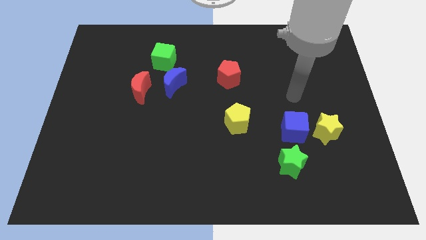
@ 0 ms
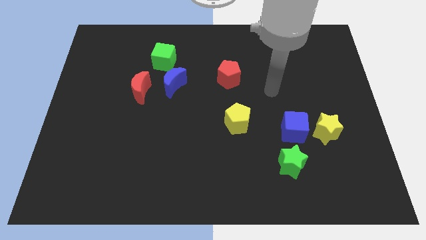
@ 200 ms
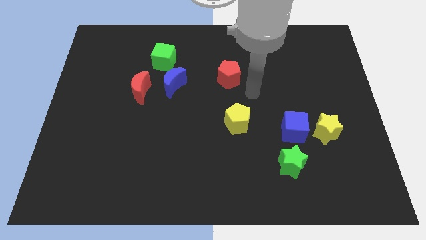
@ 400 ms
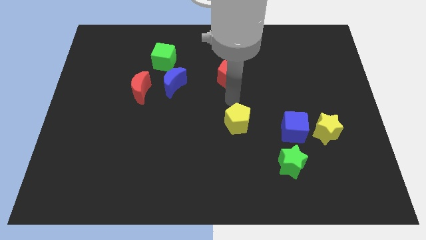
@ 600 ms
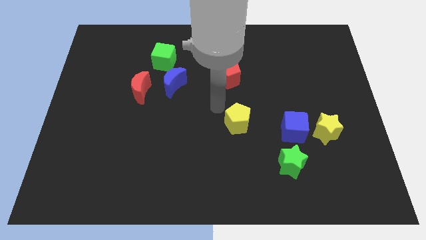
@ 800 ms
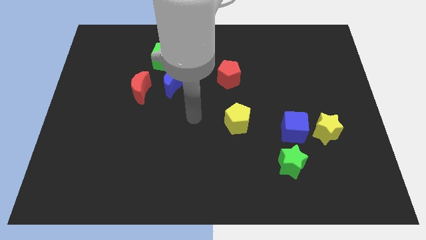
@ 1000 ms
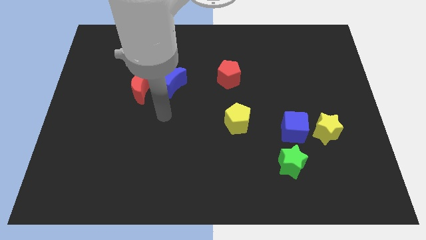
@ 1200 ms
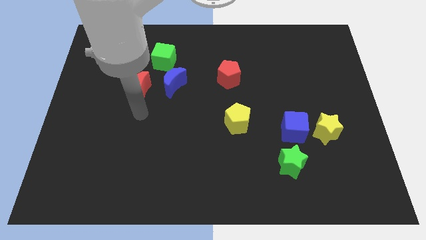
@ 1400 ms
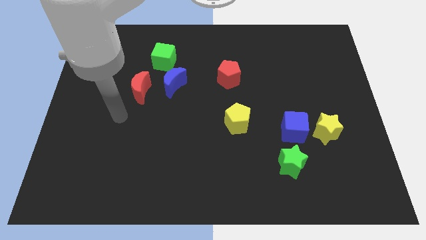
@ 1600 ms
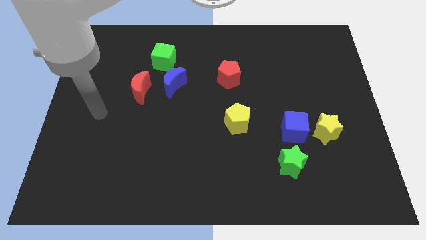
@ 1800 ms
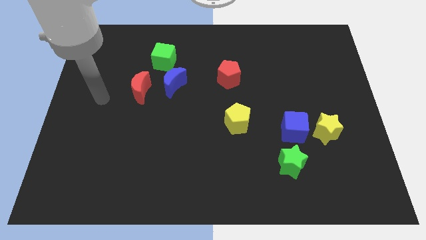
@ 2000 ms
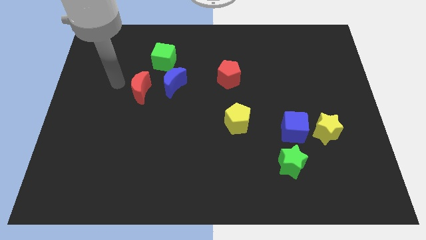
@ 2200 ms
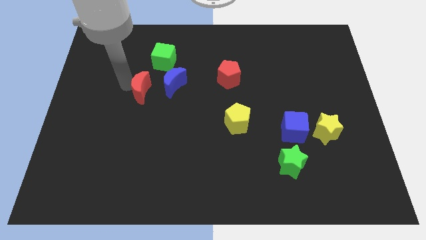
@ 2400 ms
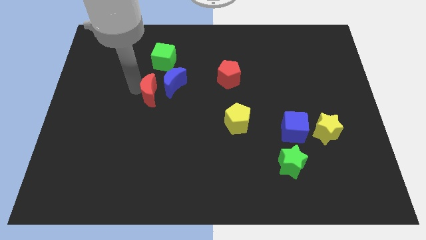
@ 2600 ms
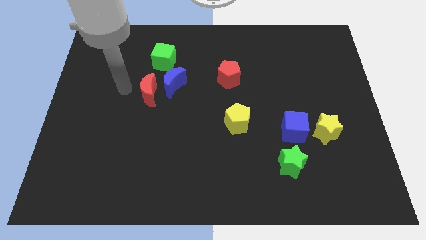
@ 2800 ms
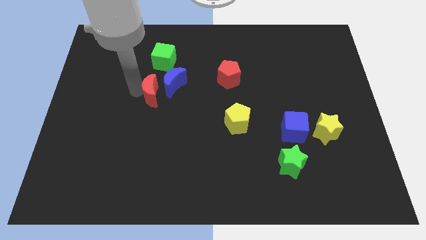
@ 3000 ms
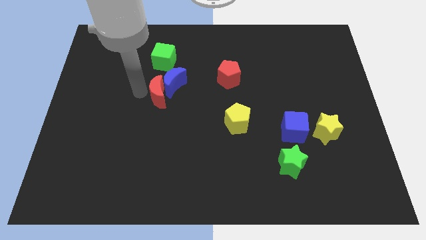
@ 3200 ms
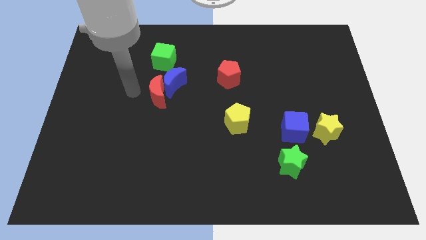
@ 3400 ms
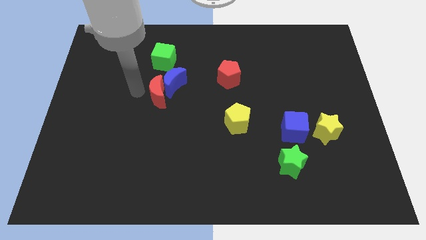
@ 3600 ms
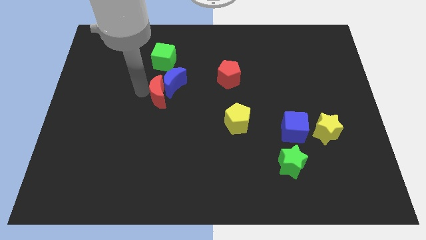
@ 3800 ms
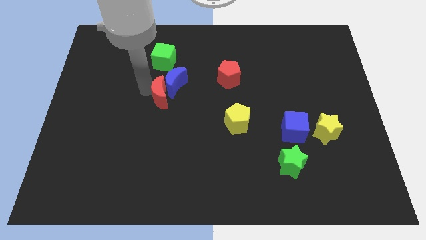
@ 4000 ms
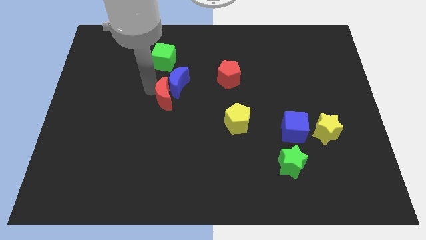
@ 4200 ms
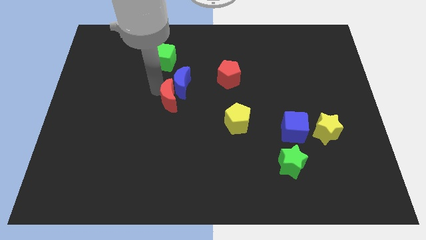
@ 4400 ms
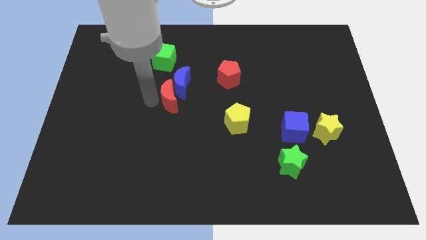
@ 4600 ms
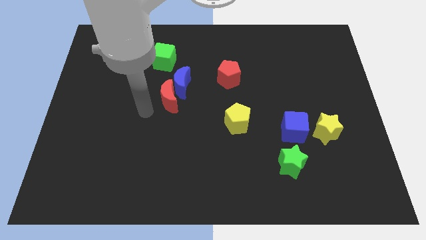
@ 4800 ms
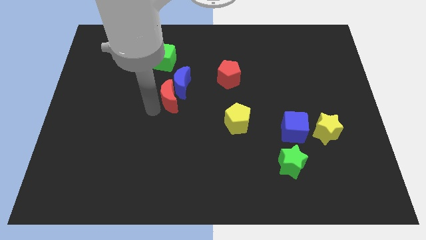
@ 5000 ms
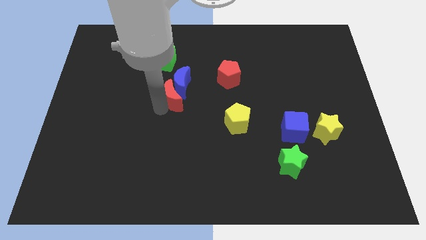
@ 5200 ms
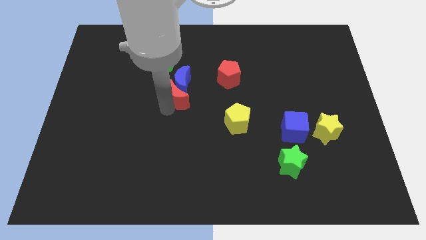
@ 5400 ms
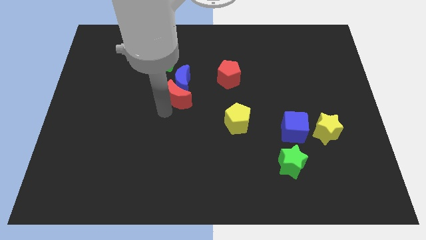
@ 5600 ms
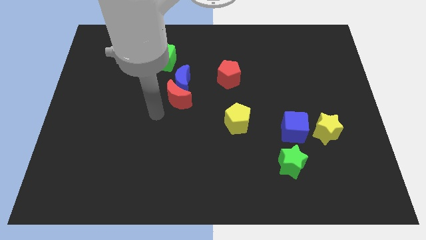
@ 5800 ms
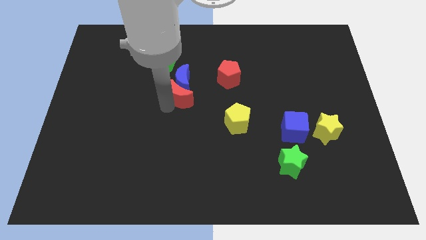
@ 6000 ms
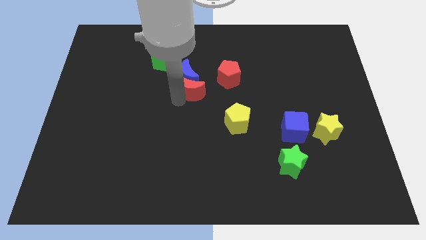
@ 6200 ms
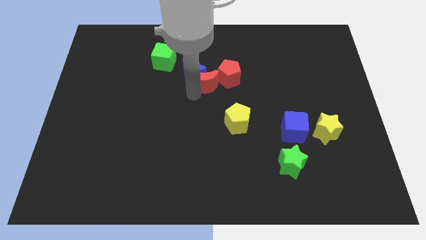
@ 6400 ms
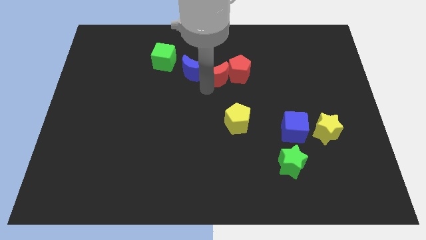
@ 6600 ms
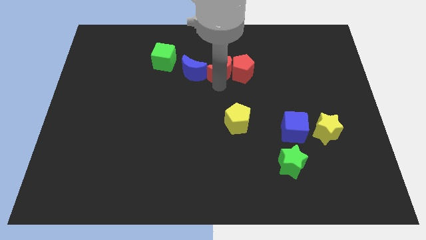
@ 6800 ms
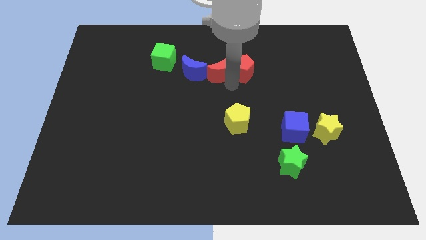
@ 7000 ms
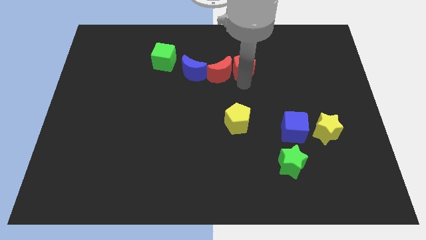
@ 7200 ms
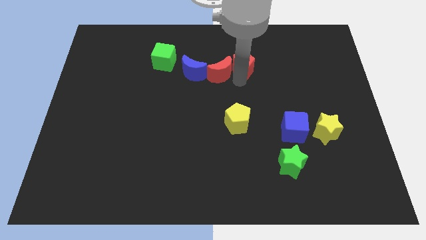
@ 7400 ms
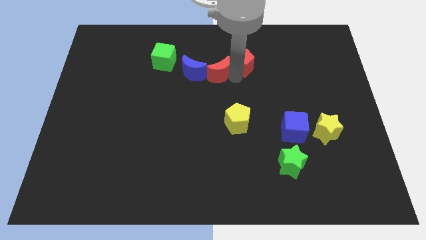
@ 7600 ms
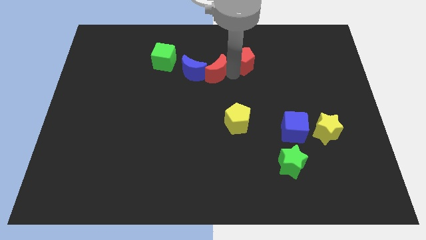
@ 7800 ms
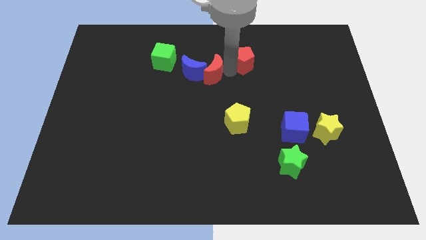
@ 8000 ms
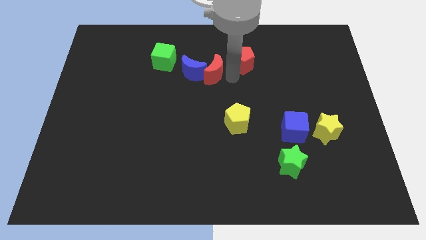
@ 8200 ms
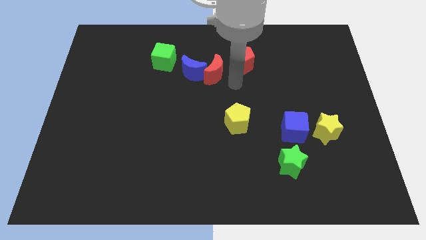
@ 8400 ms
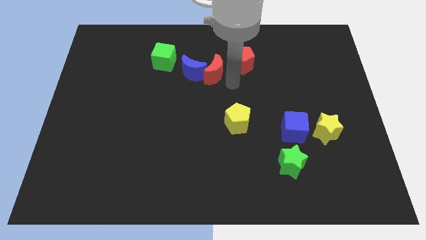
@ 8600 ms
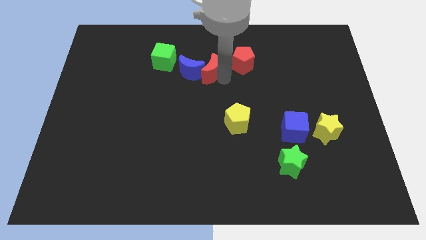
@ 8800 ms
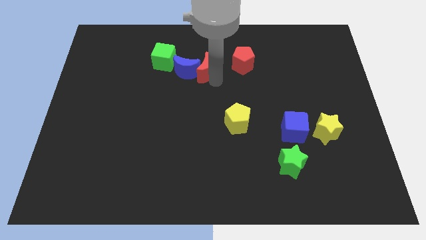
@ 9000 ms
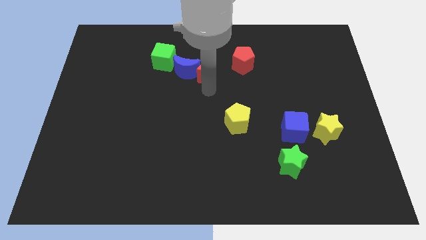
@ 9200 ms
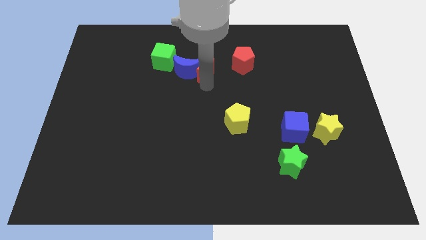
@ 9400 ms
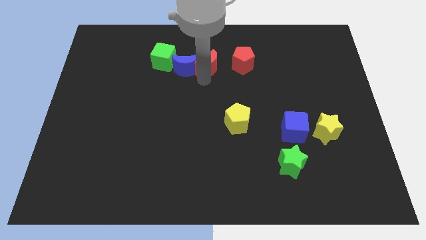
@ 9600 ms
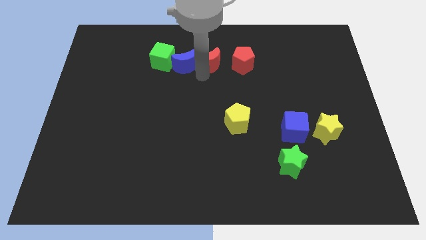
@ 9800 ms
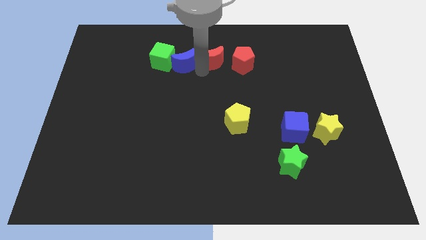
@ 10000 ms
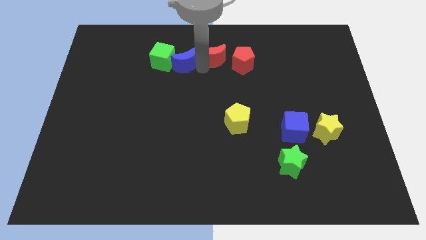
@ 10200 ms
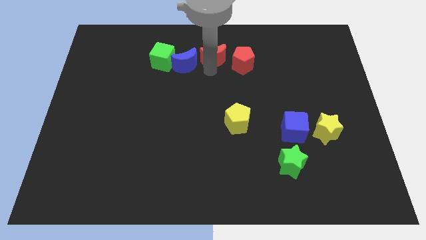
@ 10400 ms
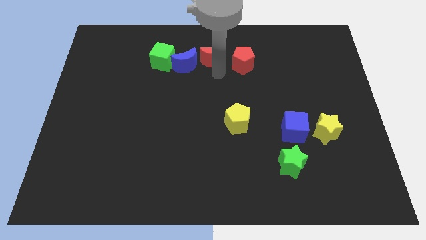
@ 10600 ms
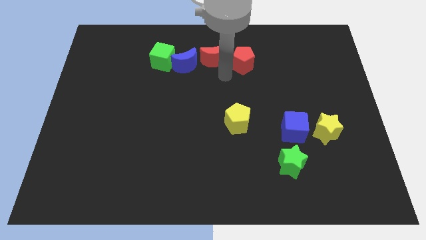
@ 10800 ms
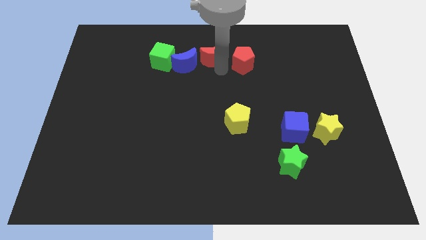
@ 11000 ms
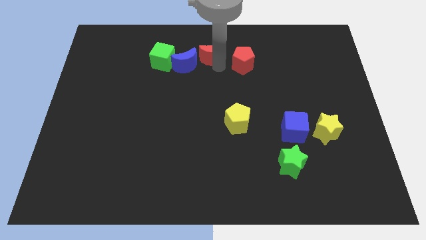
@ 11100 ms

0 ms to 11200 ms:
slide the red moon to the top side

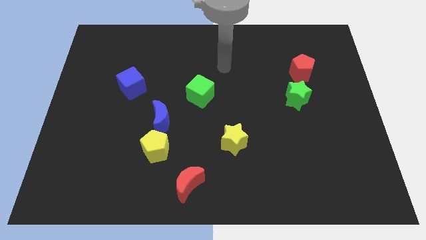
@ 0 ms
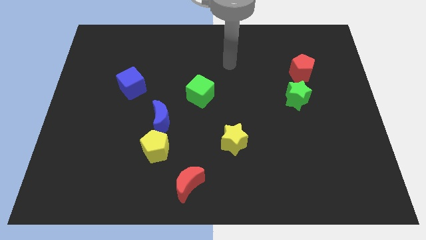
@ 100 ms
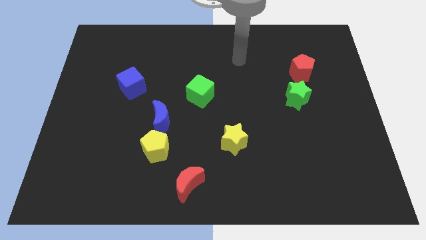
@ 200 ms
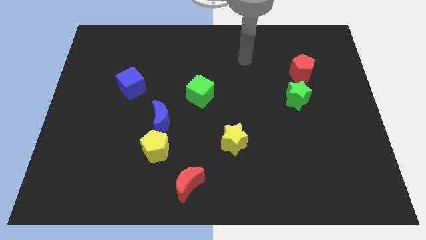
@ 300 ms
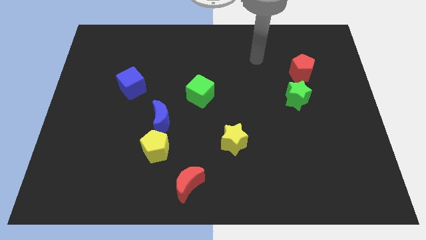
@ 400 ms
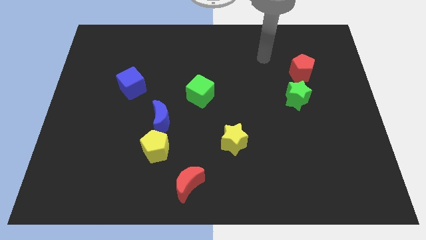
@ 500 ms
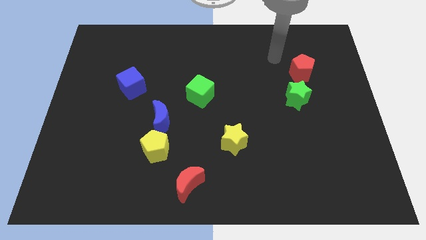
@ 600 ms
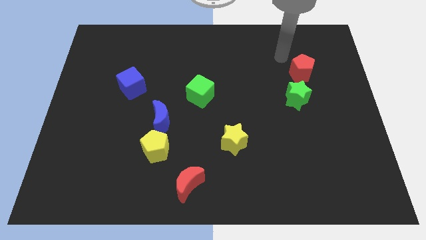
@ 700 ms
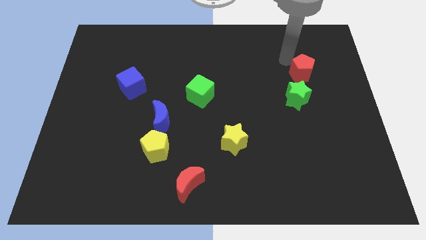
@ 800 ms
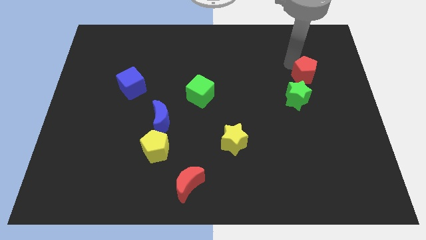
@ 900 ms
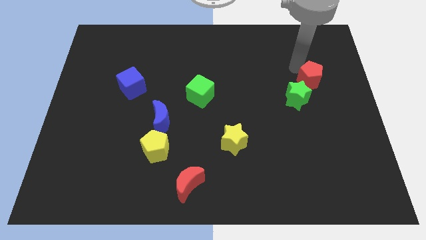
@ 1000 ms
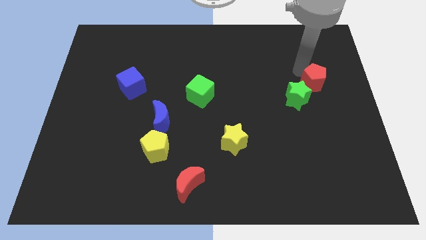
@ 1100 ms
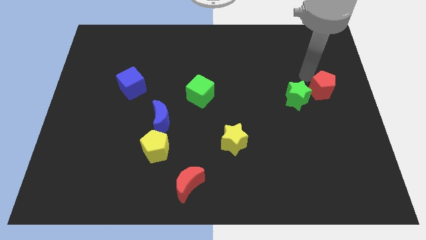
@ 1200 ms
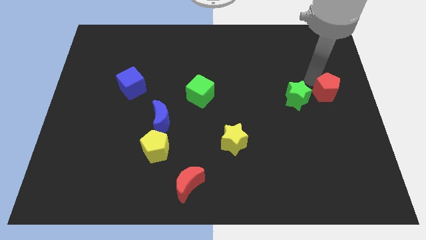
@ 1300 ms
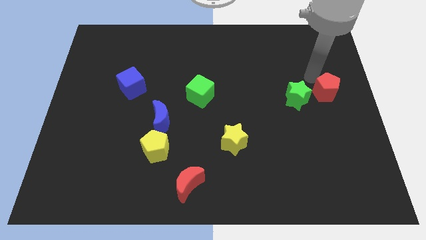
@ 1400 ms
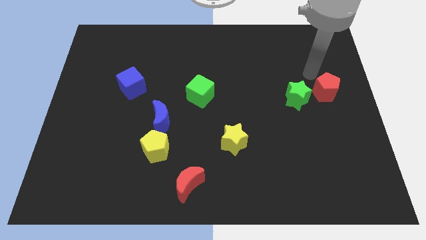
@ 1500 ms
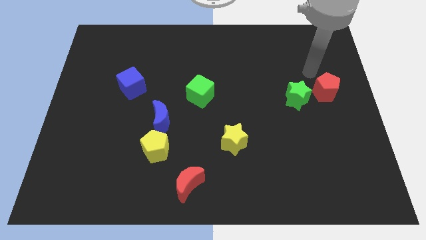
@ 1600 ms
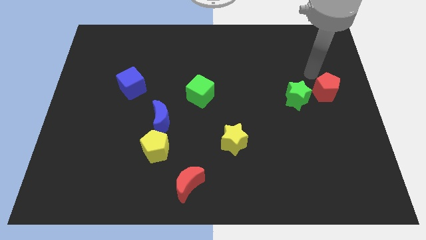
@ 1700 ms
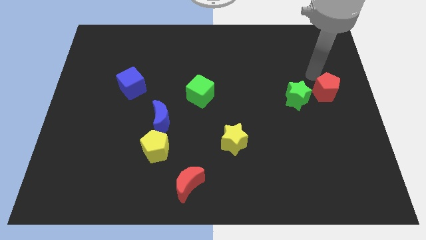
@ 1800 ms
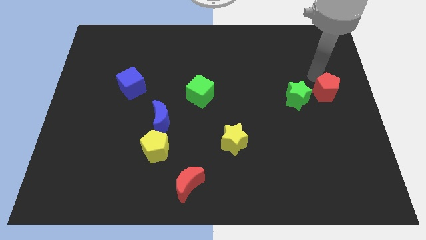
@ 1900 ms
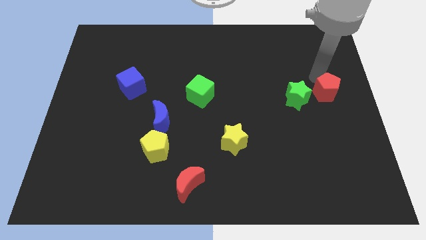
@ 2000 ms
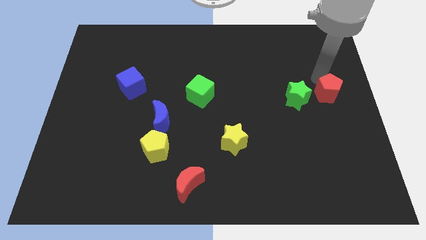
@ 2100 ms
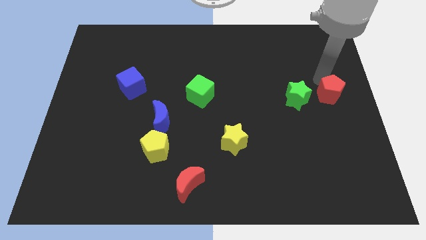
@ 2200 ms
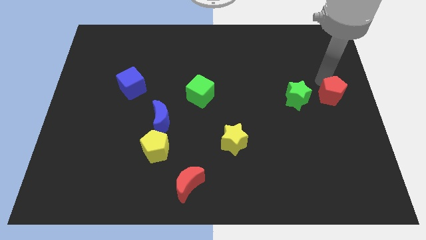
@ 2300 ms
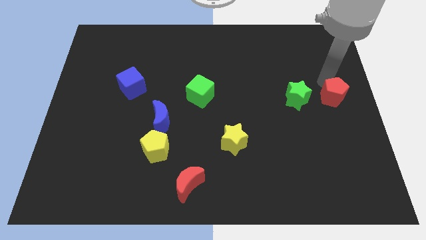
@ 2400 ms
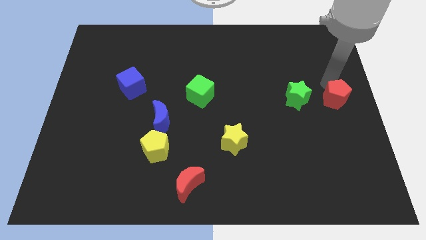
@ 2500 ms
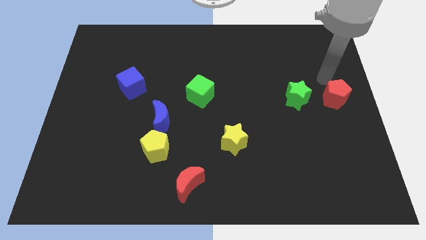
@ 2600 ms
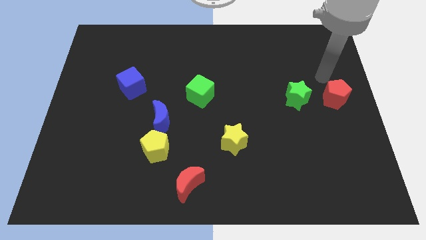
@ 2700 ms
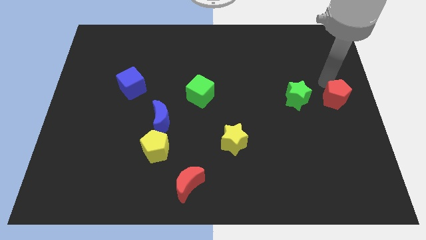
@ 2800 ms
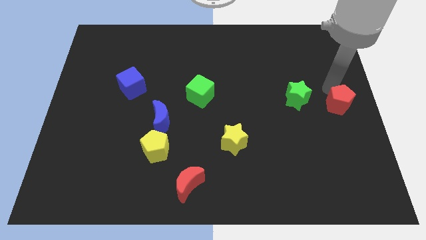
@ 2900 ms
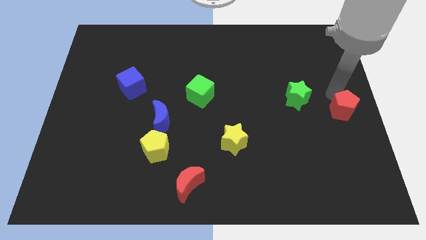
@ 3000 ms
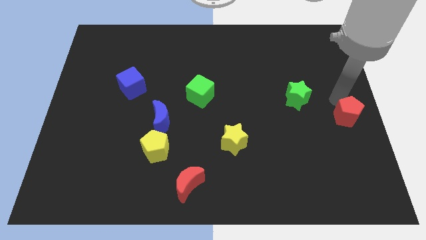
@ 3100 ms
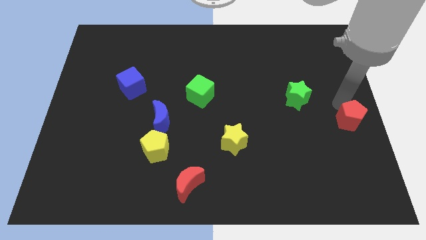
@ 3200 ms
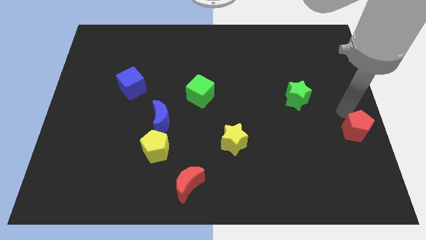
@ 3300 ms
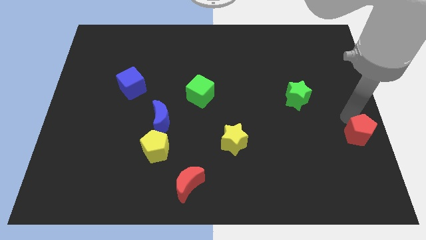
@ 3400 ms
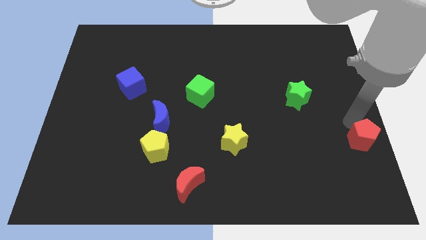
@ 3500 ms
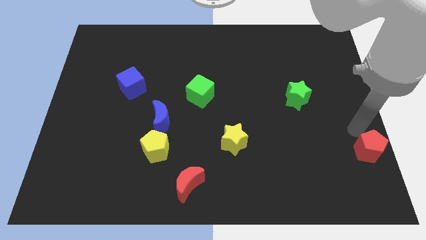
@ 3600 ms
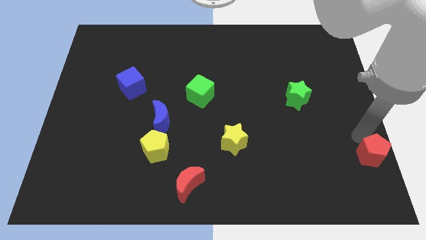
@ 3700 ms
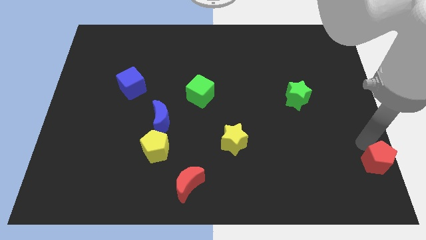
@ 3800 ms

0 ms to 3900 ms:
move the red pentagon to the bottom right
